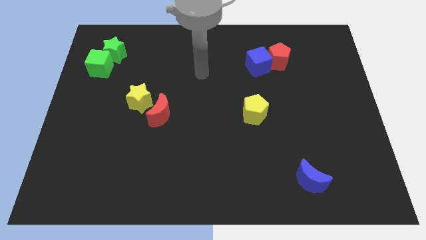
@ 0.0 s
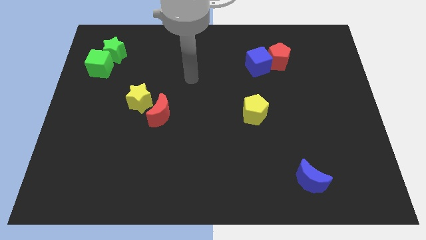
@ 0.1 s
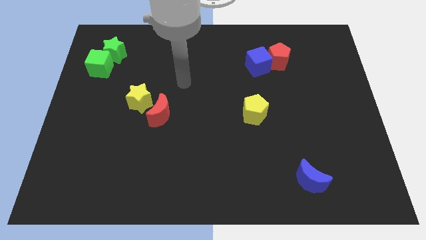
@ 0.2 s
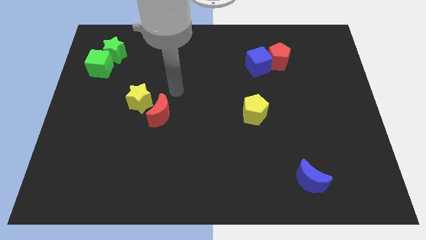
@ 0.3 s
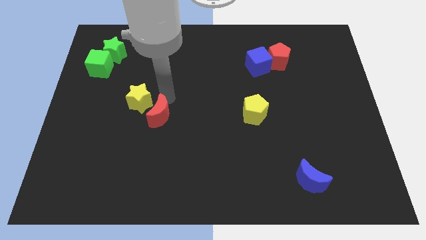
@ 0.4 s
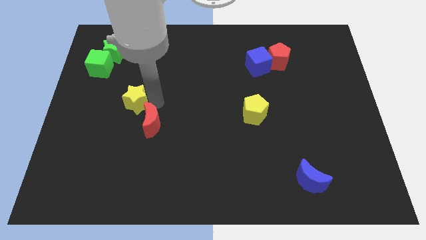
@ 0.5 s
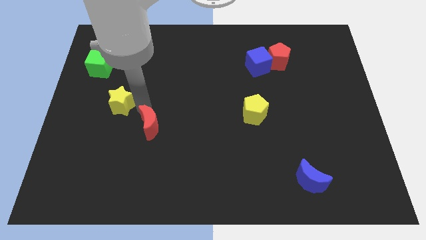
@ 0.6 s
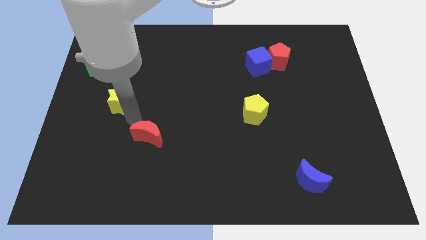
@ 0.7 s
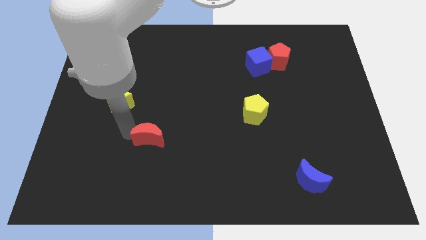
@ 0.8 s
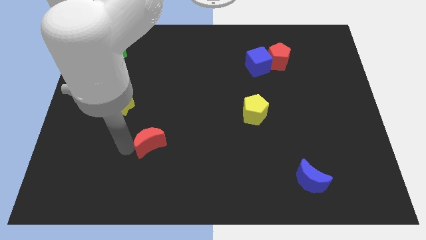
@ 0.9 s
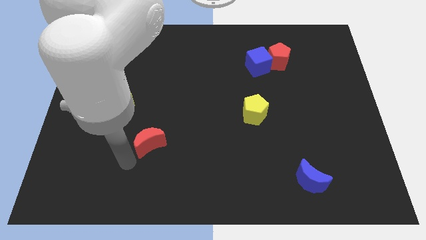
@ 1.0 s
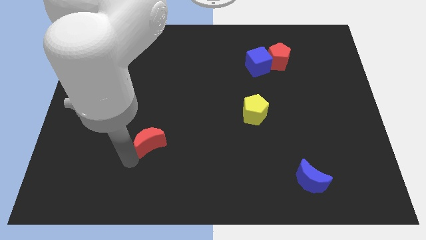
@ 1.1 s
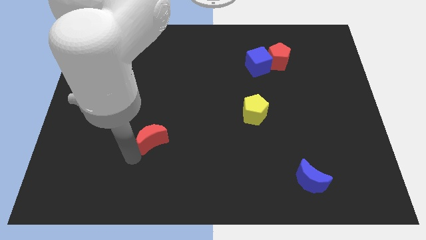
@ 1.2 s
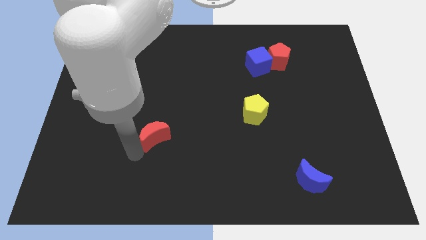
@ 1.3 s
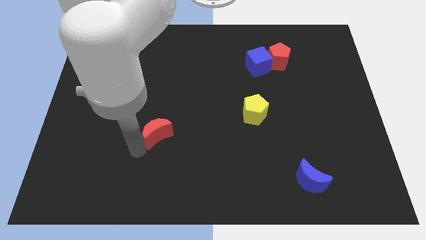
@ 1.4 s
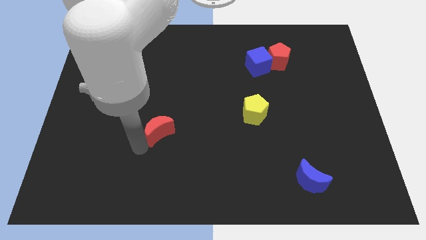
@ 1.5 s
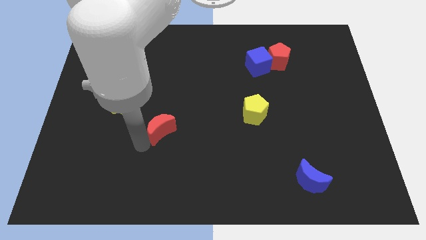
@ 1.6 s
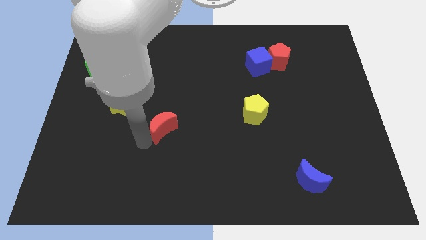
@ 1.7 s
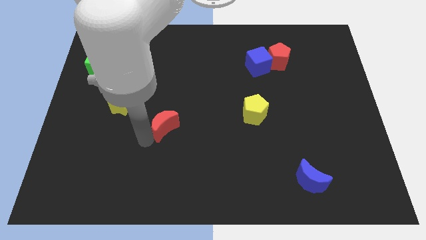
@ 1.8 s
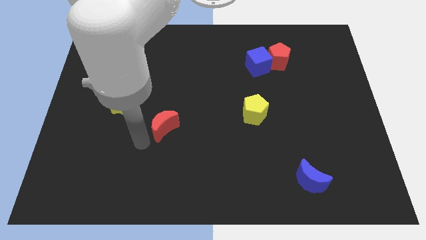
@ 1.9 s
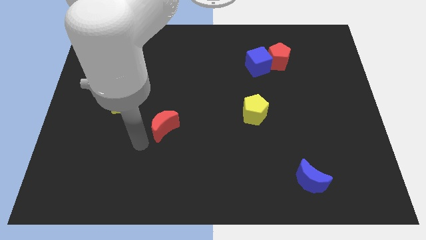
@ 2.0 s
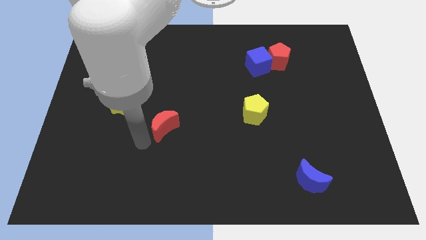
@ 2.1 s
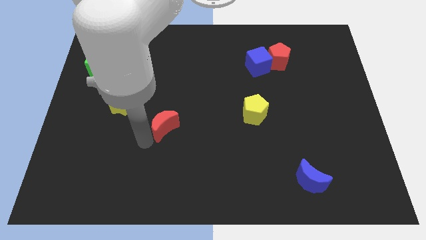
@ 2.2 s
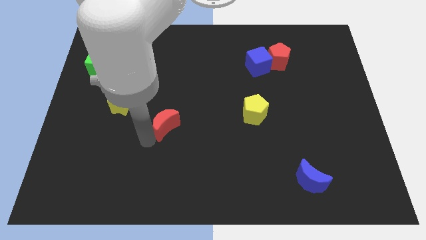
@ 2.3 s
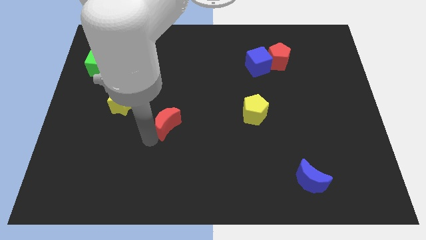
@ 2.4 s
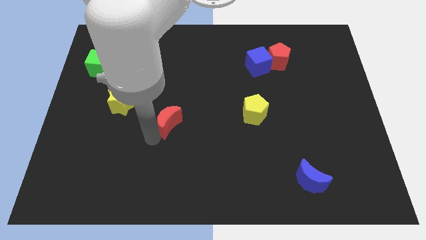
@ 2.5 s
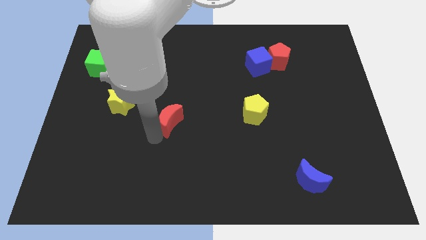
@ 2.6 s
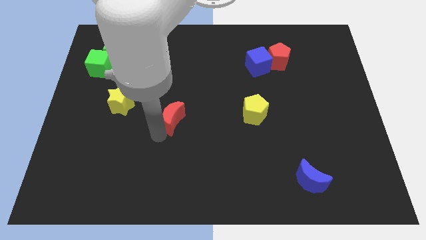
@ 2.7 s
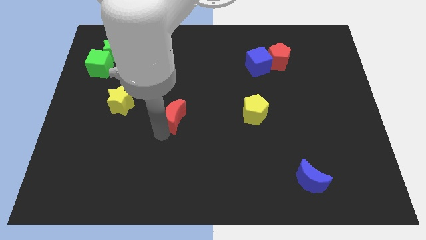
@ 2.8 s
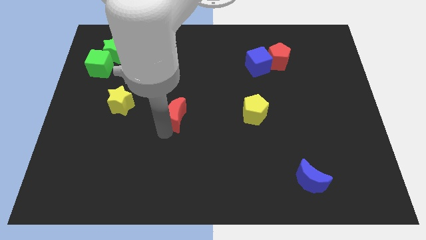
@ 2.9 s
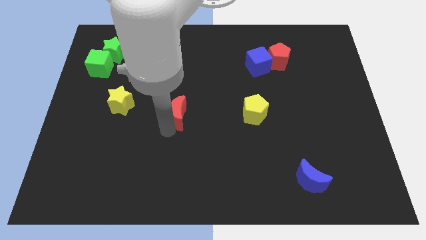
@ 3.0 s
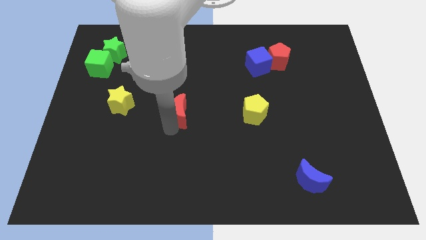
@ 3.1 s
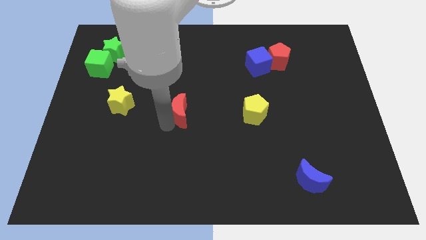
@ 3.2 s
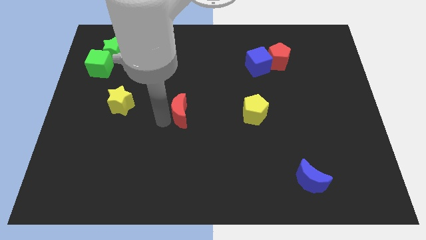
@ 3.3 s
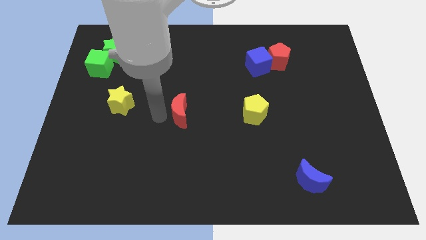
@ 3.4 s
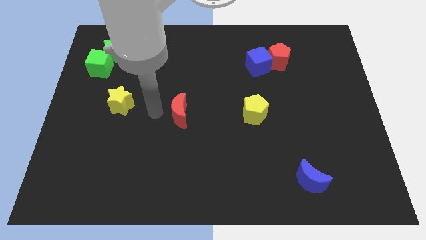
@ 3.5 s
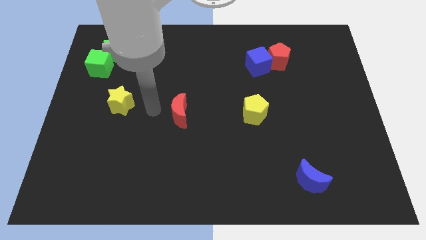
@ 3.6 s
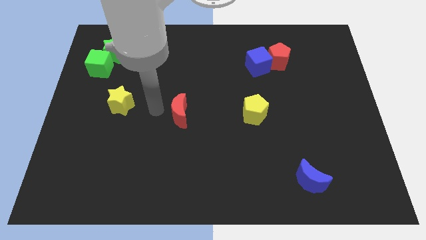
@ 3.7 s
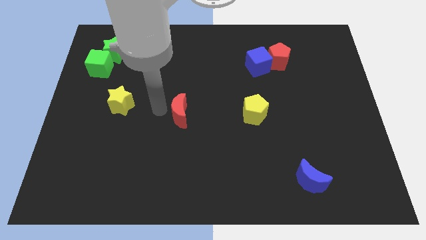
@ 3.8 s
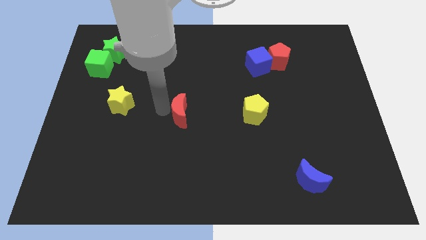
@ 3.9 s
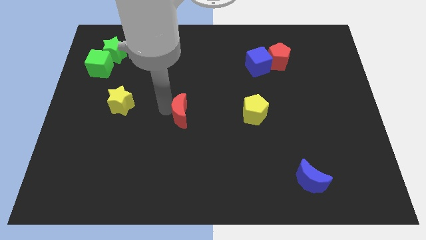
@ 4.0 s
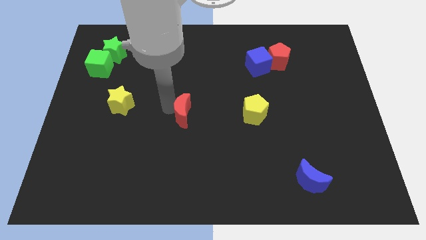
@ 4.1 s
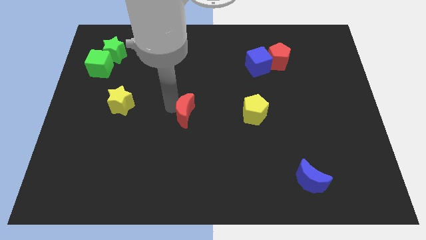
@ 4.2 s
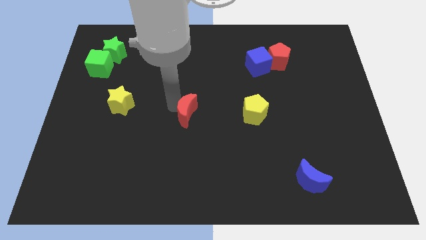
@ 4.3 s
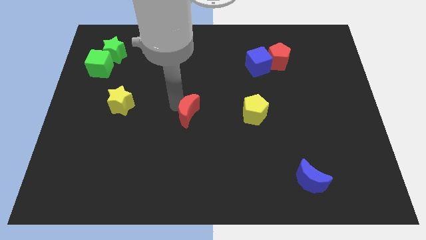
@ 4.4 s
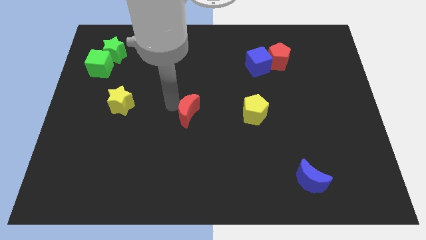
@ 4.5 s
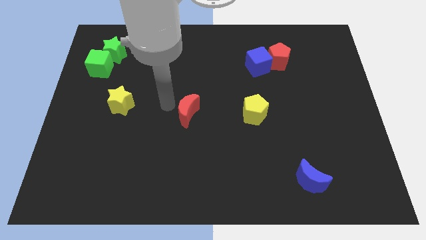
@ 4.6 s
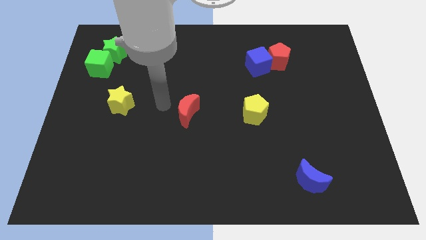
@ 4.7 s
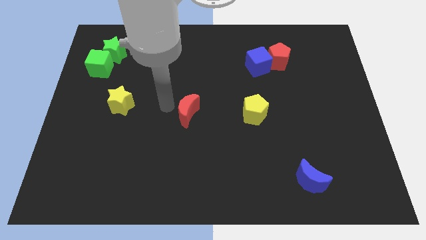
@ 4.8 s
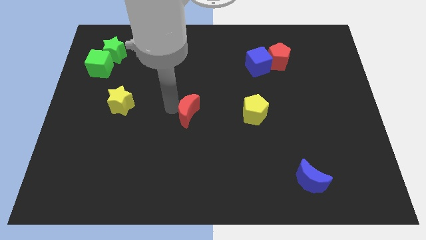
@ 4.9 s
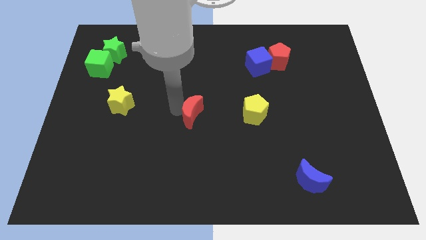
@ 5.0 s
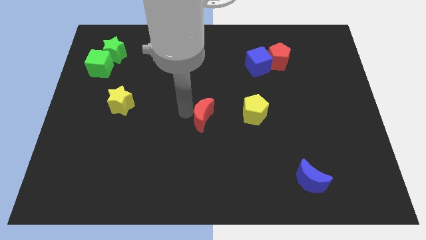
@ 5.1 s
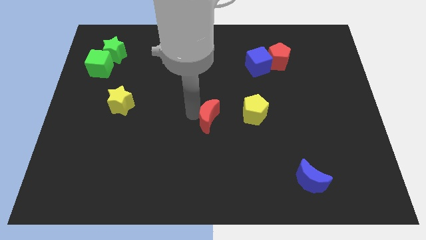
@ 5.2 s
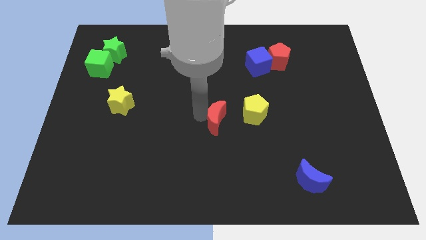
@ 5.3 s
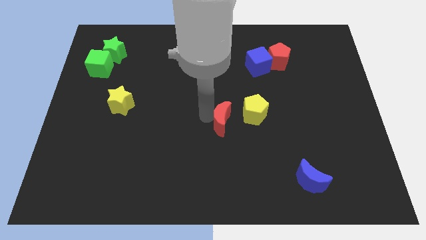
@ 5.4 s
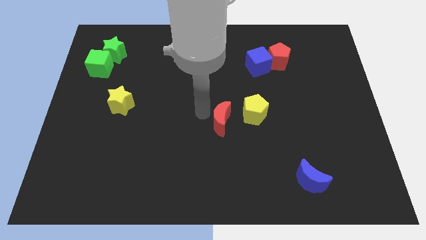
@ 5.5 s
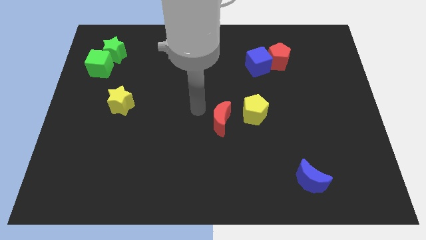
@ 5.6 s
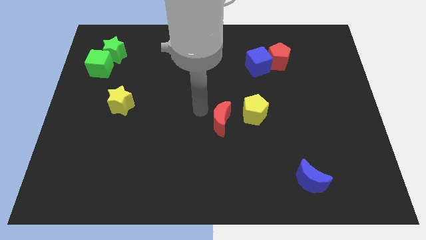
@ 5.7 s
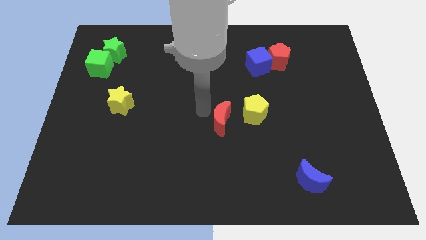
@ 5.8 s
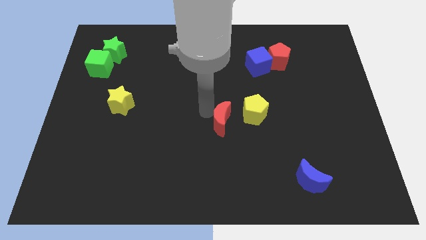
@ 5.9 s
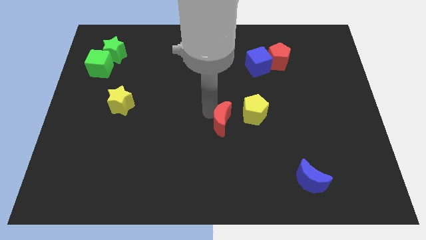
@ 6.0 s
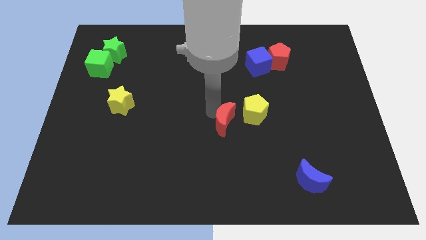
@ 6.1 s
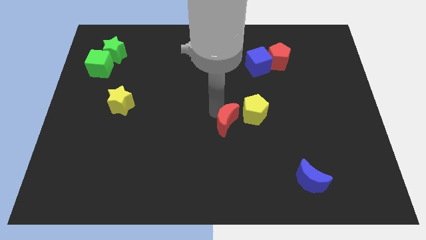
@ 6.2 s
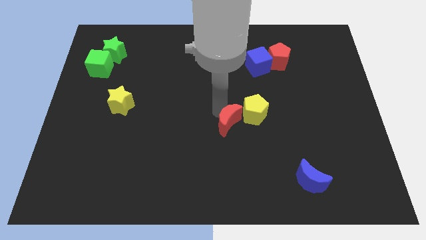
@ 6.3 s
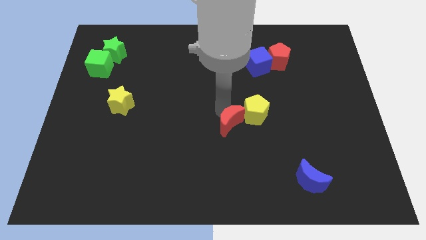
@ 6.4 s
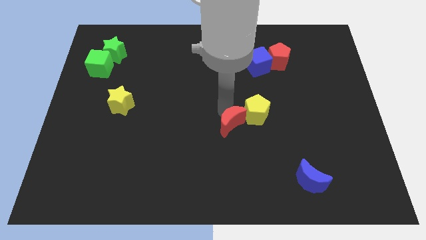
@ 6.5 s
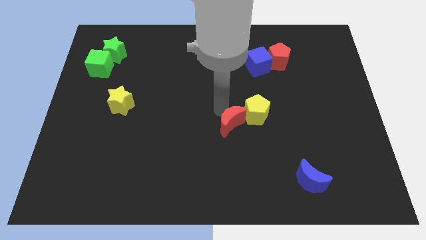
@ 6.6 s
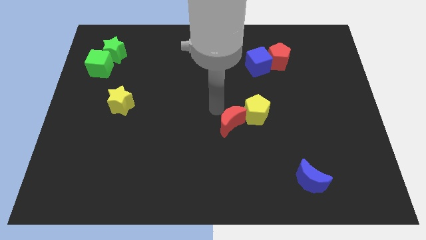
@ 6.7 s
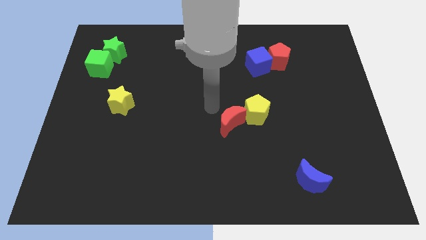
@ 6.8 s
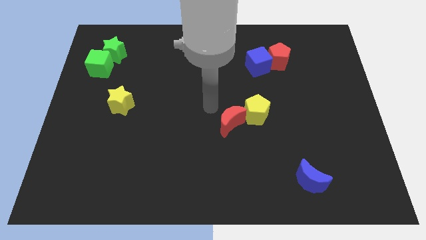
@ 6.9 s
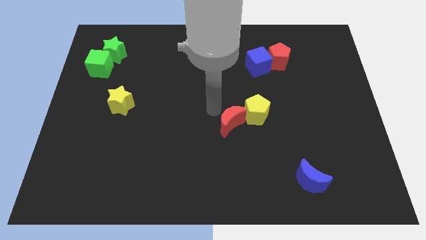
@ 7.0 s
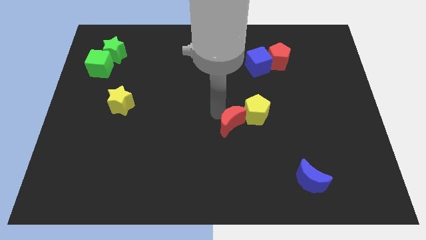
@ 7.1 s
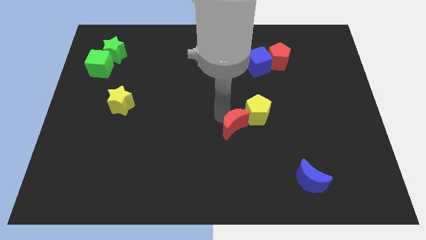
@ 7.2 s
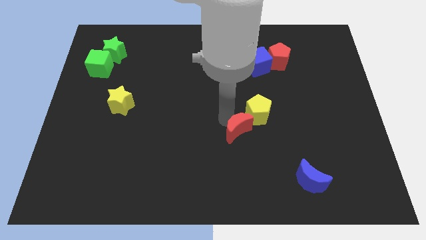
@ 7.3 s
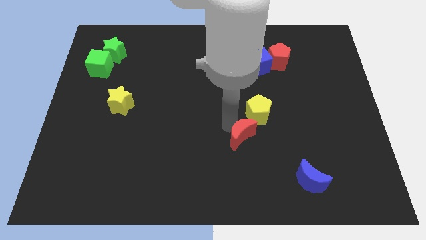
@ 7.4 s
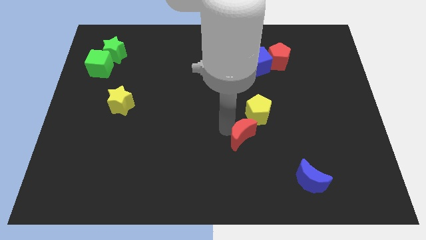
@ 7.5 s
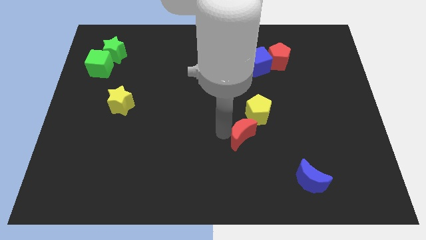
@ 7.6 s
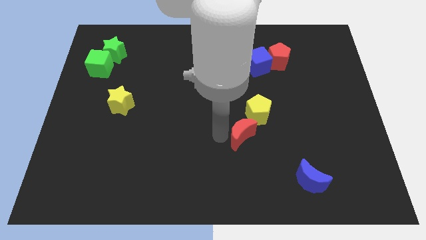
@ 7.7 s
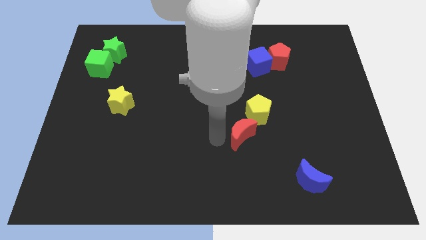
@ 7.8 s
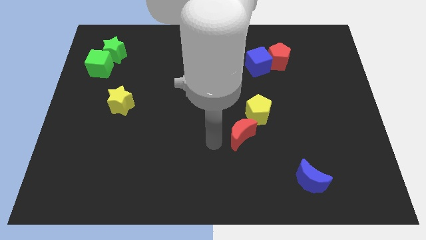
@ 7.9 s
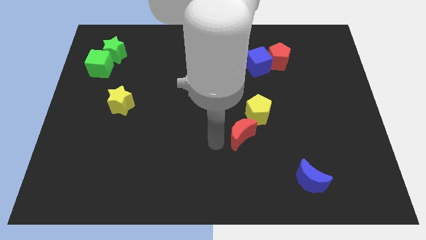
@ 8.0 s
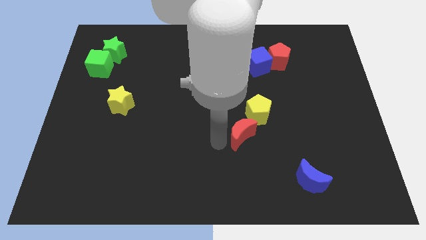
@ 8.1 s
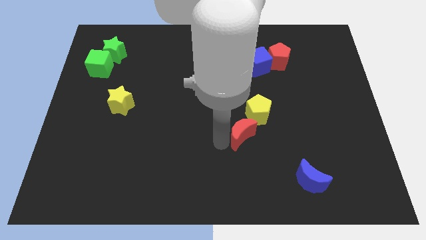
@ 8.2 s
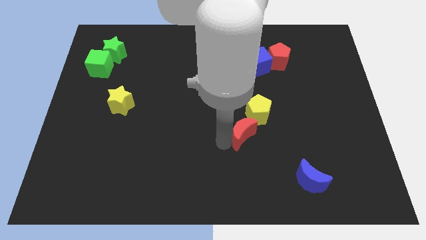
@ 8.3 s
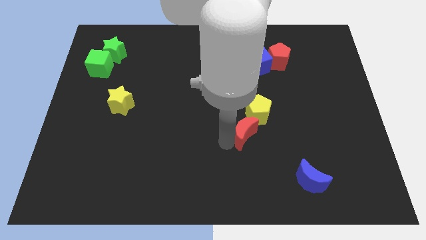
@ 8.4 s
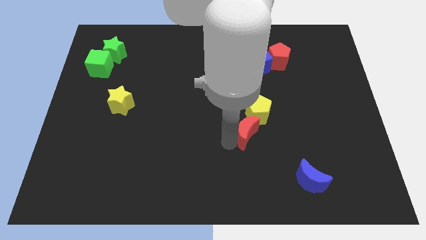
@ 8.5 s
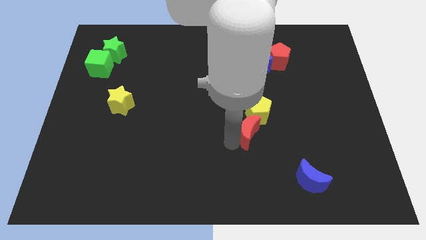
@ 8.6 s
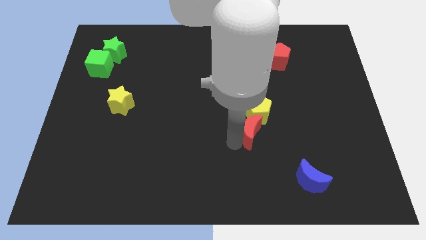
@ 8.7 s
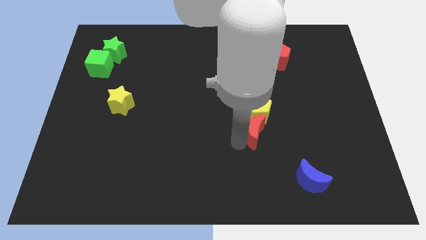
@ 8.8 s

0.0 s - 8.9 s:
slide the red moon to the right
